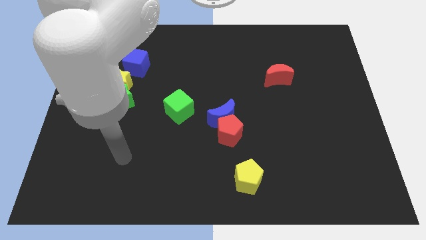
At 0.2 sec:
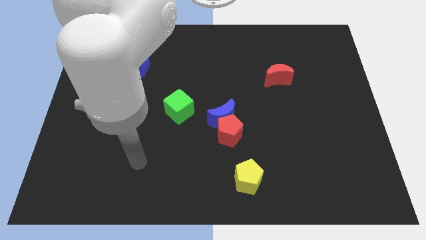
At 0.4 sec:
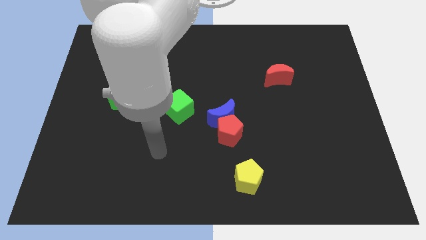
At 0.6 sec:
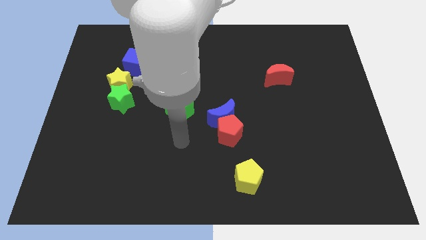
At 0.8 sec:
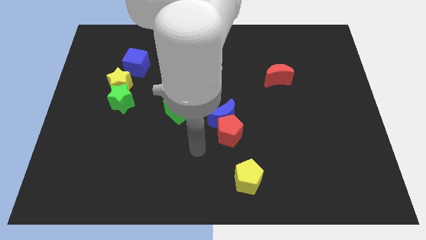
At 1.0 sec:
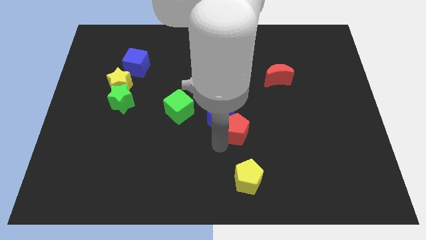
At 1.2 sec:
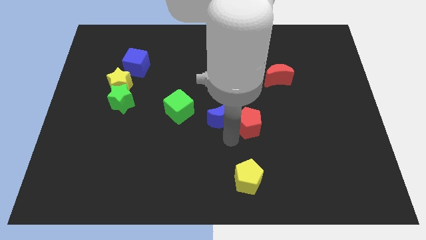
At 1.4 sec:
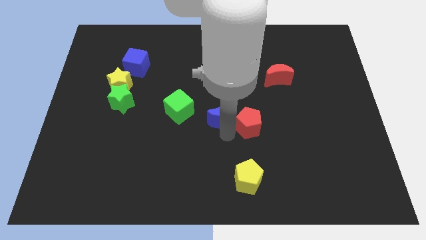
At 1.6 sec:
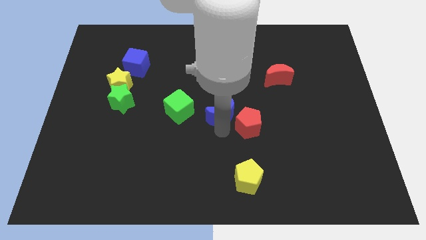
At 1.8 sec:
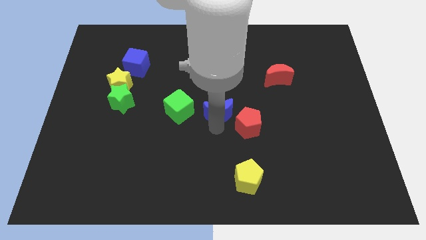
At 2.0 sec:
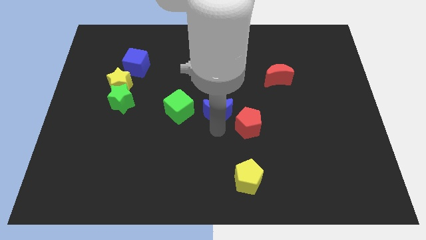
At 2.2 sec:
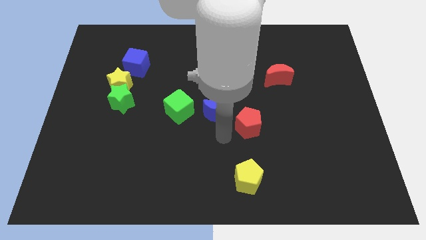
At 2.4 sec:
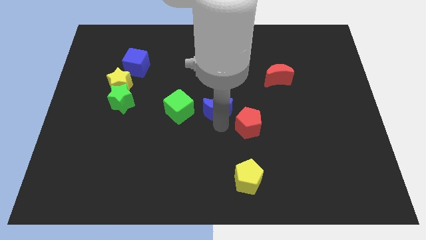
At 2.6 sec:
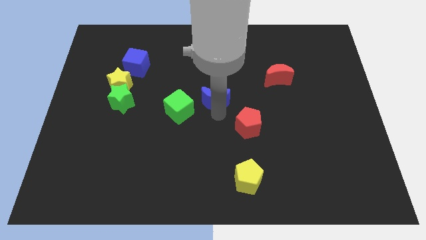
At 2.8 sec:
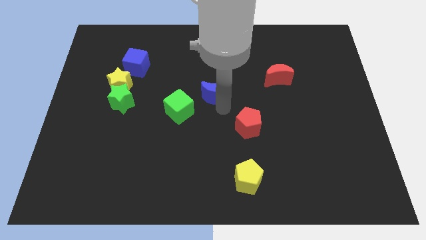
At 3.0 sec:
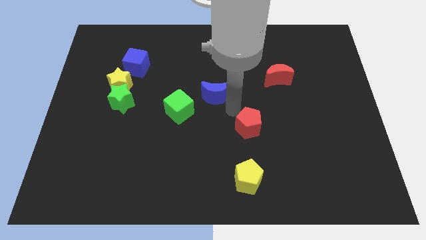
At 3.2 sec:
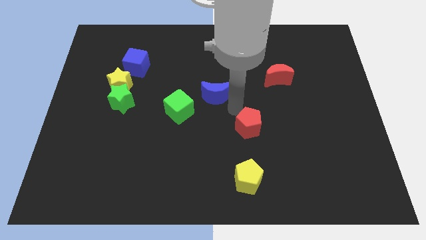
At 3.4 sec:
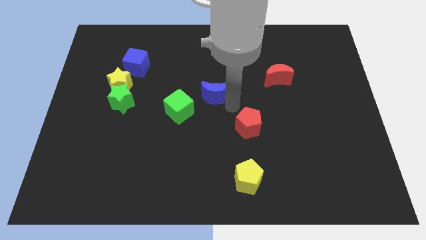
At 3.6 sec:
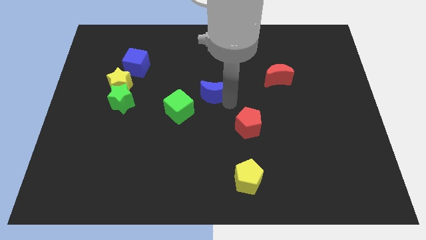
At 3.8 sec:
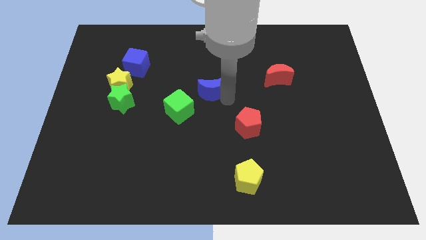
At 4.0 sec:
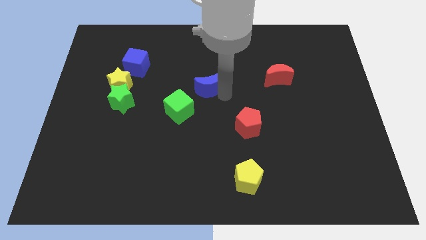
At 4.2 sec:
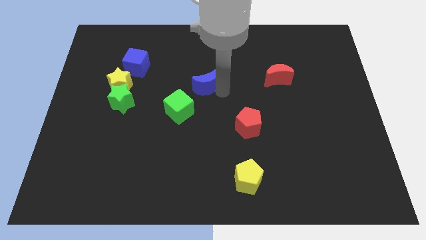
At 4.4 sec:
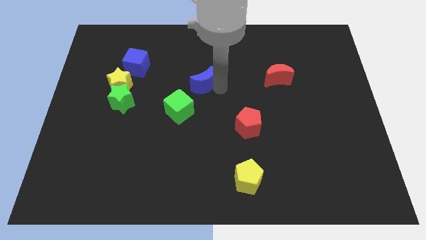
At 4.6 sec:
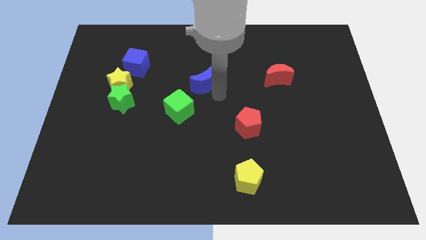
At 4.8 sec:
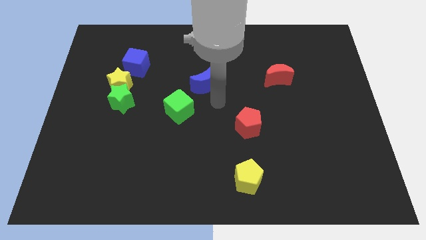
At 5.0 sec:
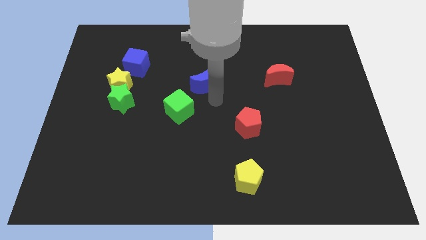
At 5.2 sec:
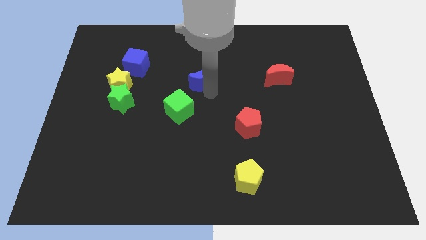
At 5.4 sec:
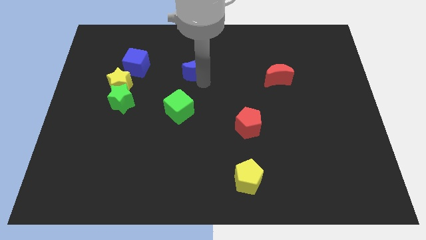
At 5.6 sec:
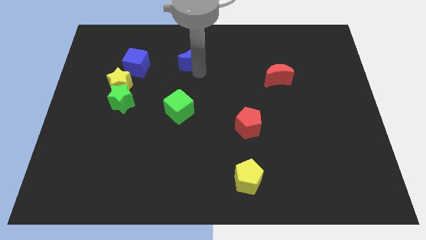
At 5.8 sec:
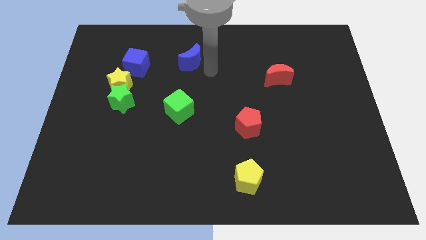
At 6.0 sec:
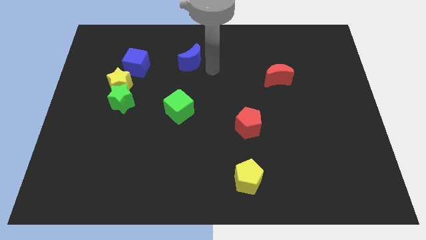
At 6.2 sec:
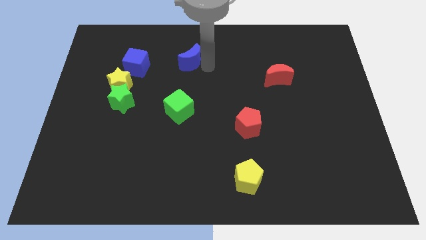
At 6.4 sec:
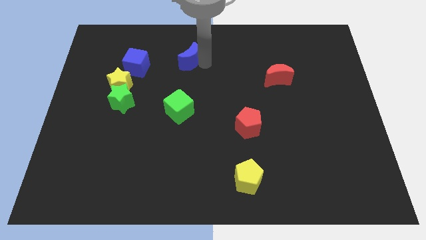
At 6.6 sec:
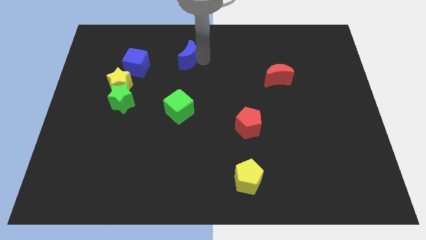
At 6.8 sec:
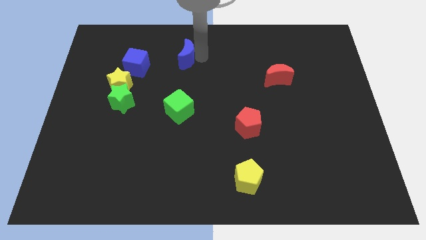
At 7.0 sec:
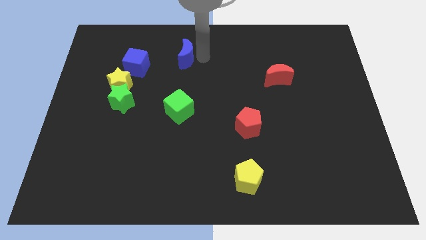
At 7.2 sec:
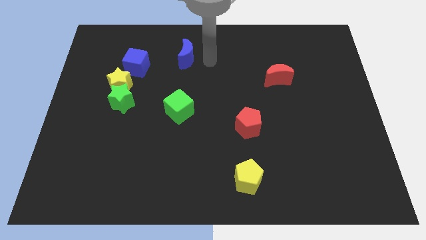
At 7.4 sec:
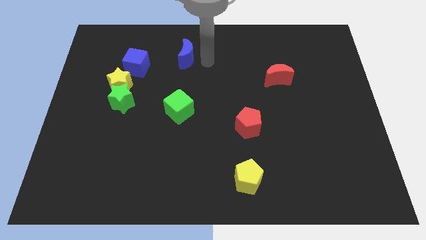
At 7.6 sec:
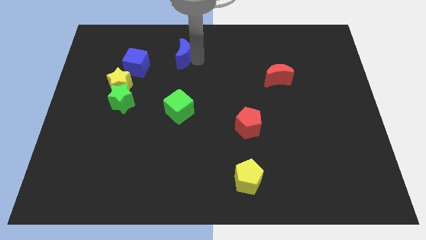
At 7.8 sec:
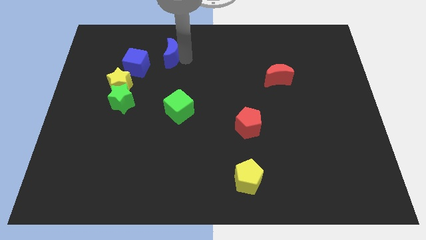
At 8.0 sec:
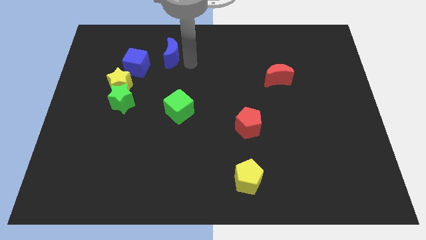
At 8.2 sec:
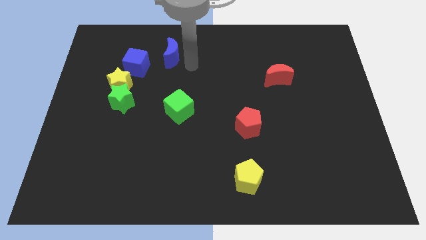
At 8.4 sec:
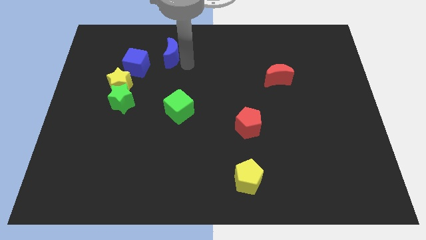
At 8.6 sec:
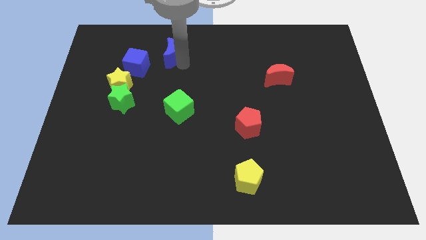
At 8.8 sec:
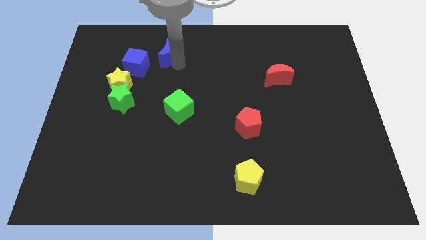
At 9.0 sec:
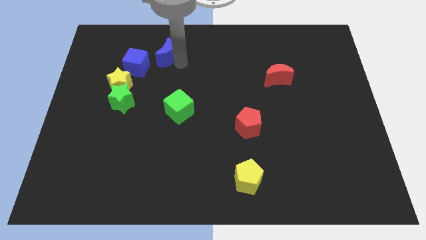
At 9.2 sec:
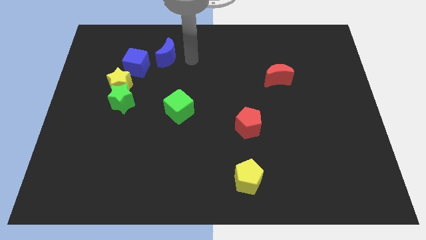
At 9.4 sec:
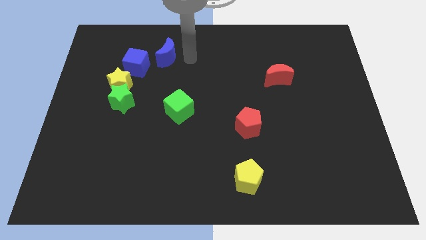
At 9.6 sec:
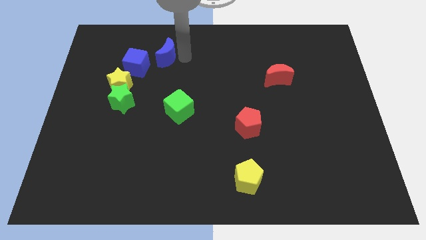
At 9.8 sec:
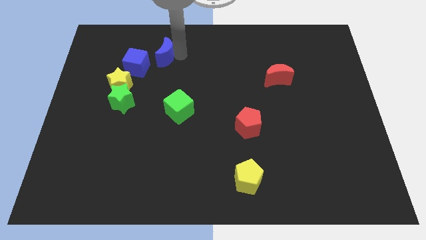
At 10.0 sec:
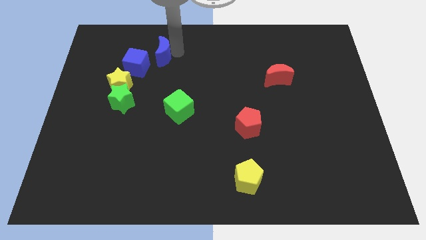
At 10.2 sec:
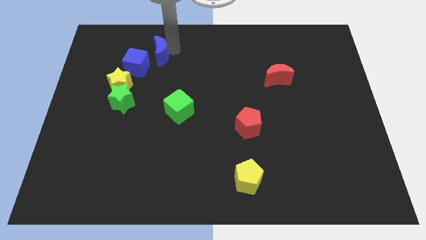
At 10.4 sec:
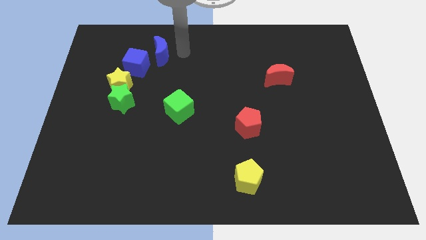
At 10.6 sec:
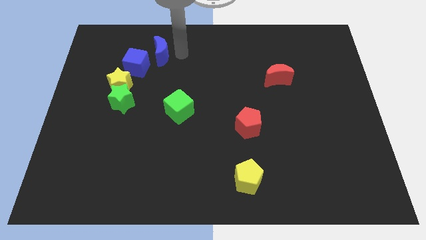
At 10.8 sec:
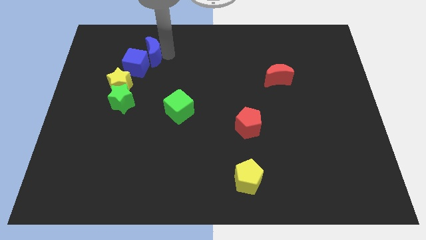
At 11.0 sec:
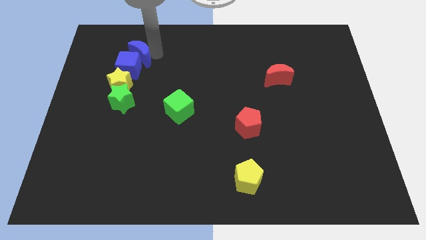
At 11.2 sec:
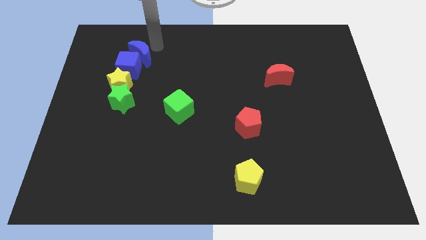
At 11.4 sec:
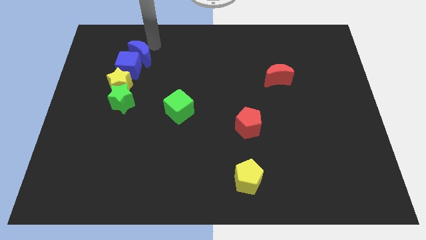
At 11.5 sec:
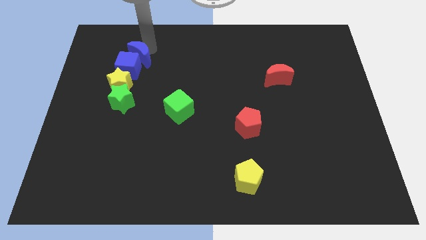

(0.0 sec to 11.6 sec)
move the blue moon to the top of the green star
